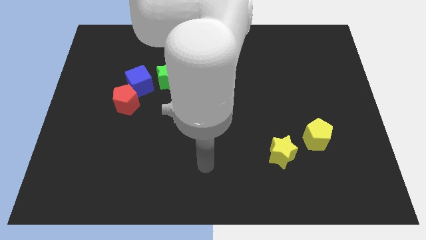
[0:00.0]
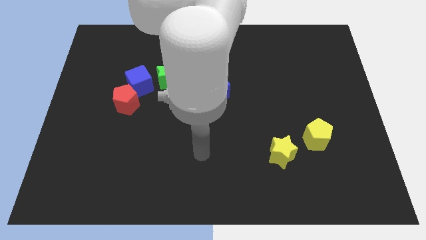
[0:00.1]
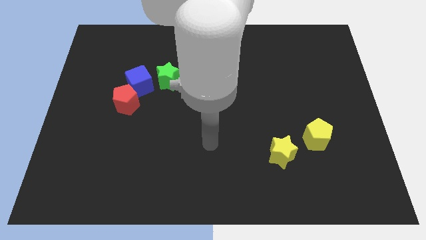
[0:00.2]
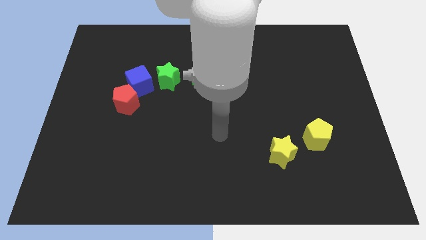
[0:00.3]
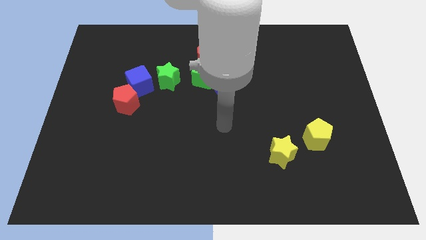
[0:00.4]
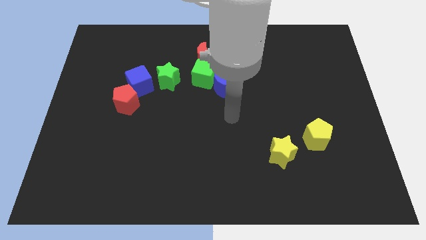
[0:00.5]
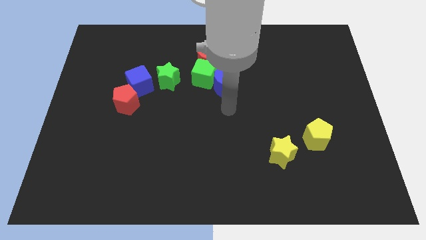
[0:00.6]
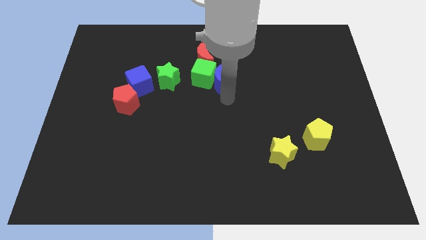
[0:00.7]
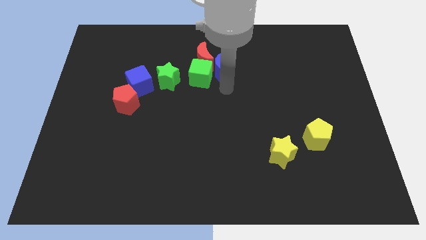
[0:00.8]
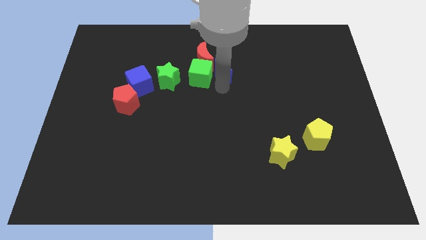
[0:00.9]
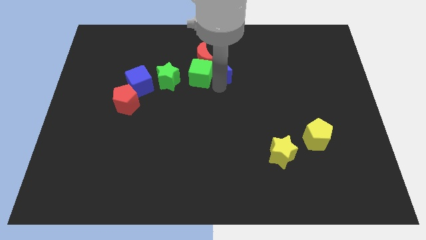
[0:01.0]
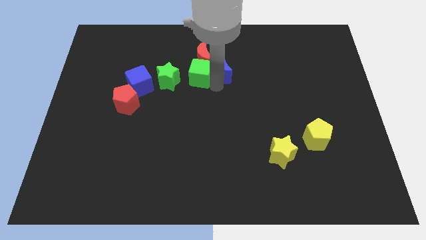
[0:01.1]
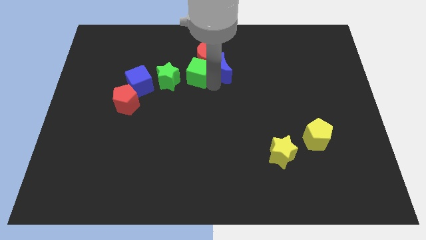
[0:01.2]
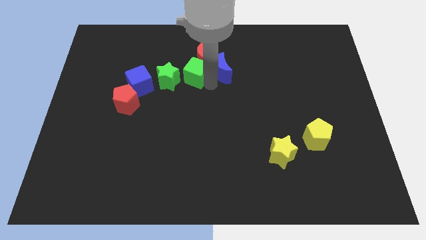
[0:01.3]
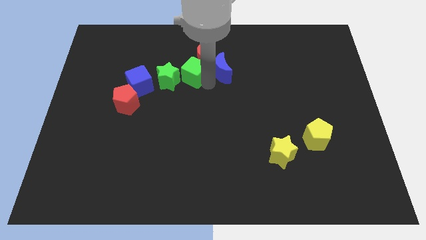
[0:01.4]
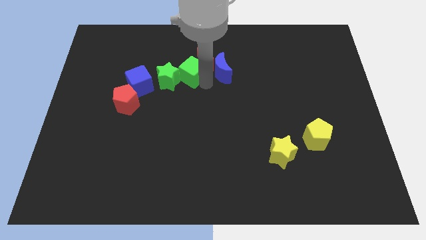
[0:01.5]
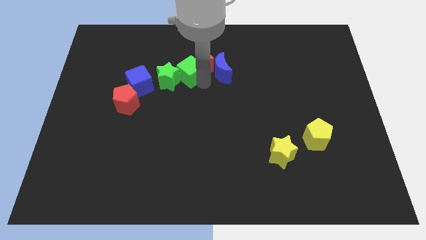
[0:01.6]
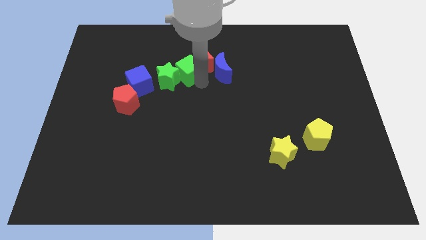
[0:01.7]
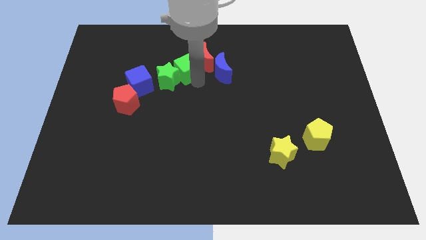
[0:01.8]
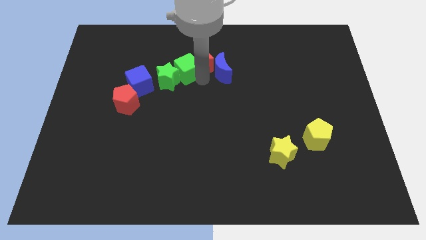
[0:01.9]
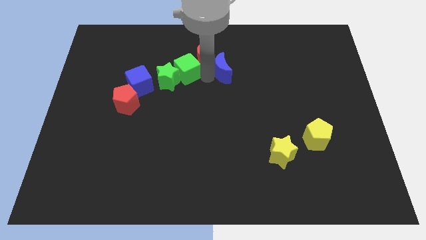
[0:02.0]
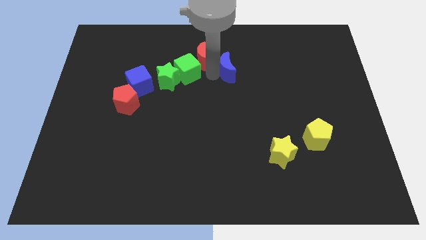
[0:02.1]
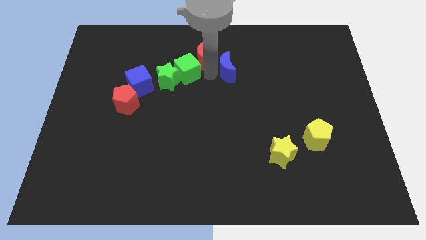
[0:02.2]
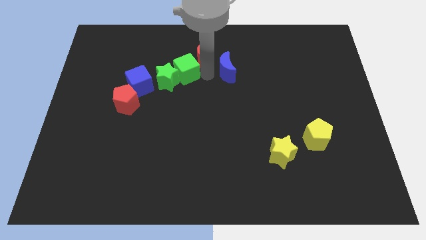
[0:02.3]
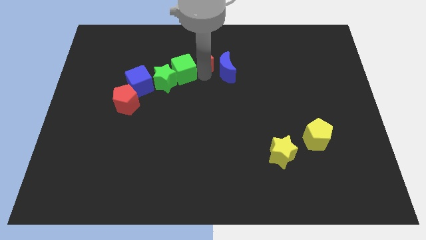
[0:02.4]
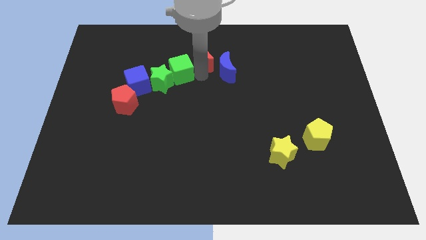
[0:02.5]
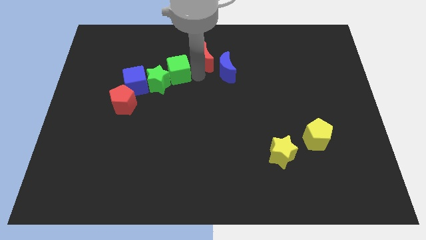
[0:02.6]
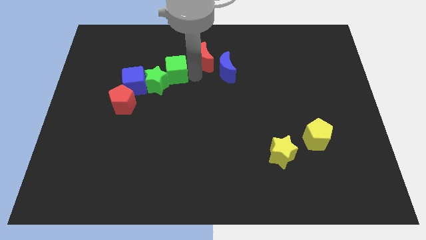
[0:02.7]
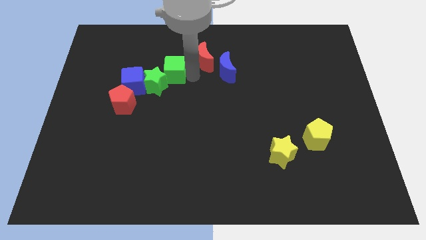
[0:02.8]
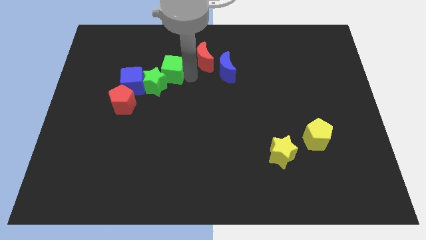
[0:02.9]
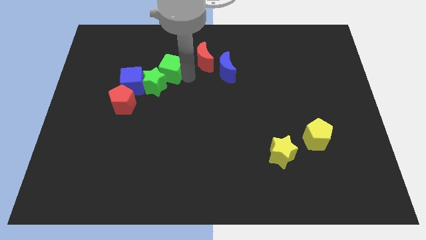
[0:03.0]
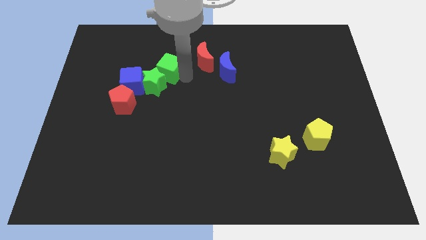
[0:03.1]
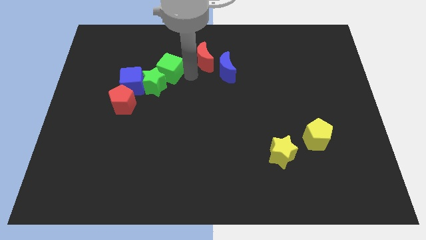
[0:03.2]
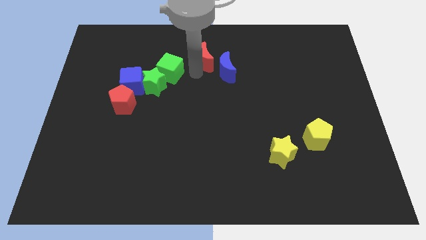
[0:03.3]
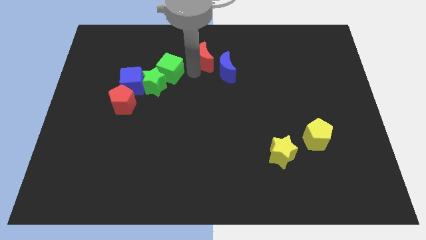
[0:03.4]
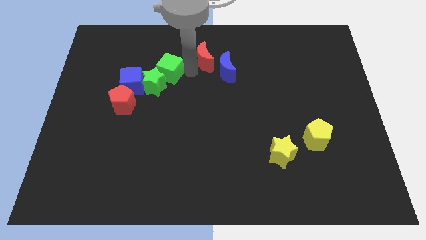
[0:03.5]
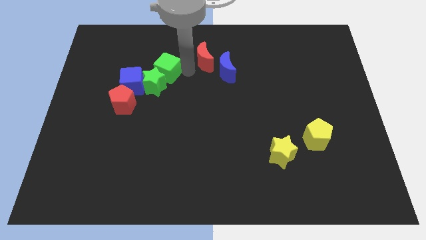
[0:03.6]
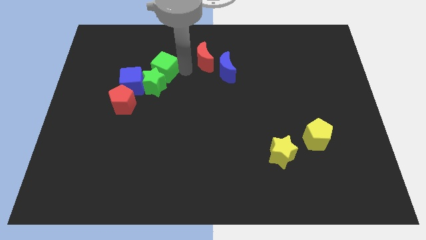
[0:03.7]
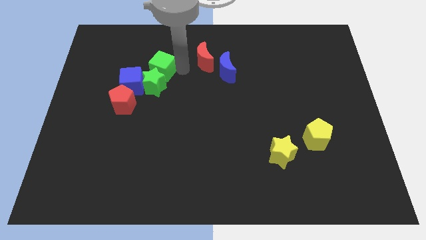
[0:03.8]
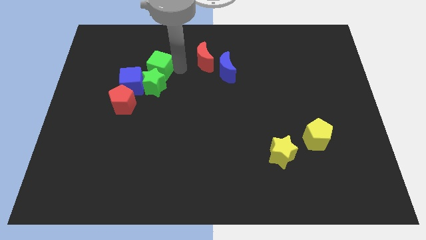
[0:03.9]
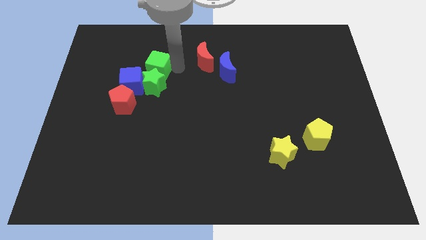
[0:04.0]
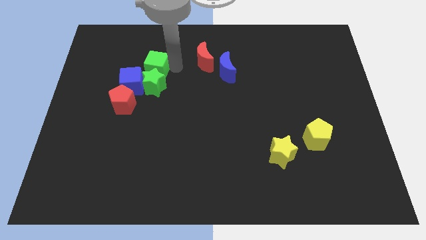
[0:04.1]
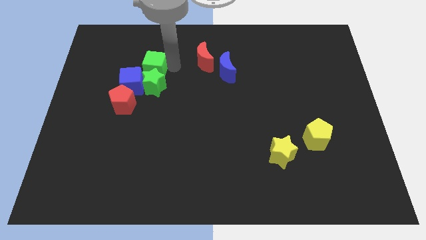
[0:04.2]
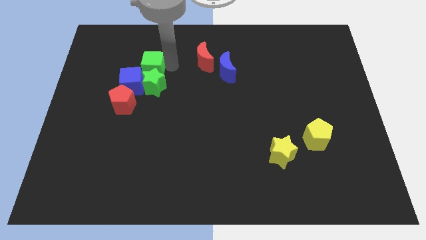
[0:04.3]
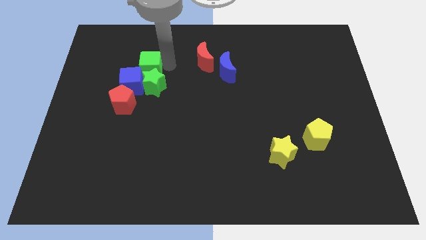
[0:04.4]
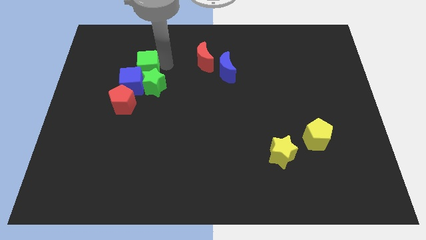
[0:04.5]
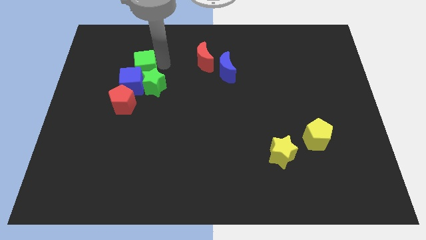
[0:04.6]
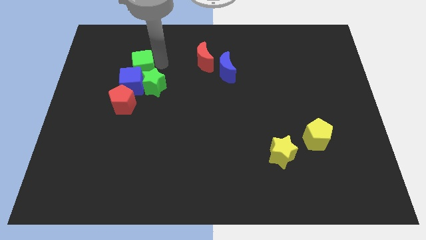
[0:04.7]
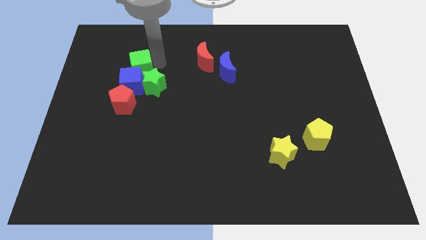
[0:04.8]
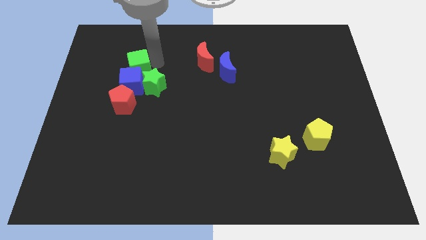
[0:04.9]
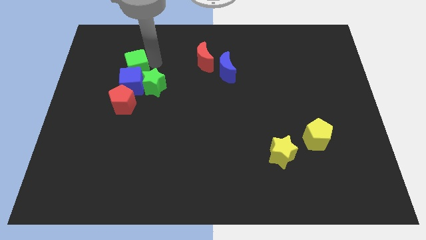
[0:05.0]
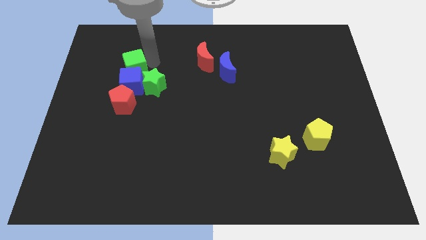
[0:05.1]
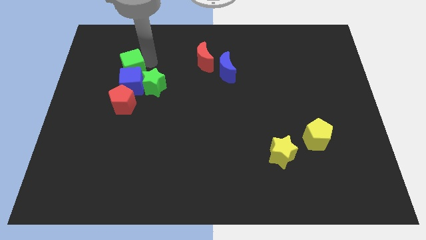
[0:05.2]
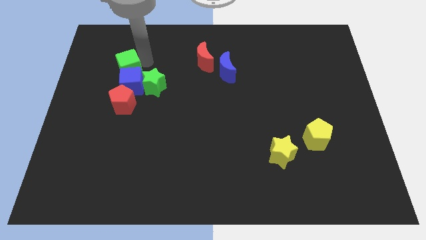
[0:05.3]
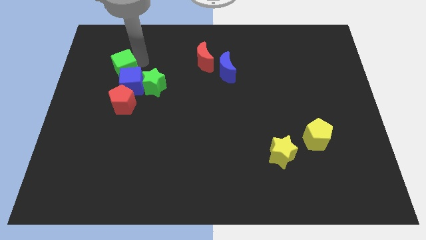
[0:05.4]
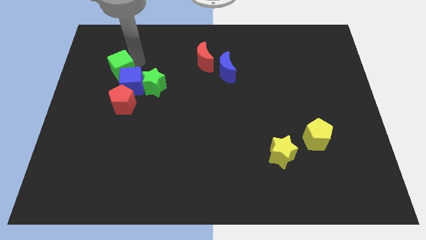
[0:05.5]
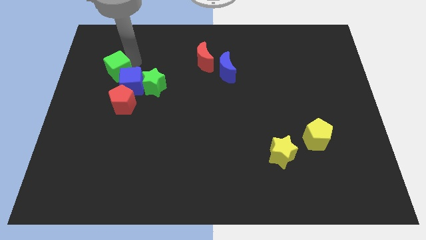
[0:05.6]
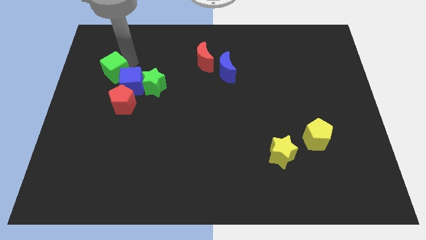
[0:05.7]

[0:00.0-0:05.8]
slide the green cube to the left of the blue cube

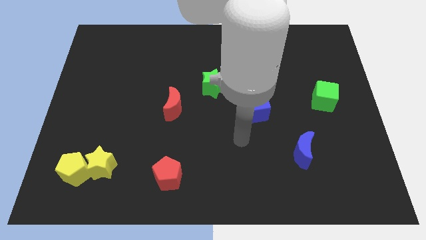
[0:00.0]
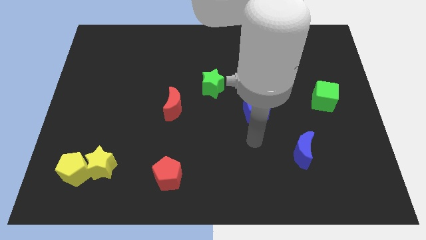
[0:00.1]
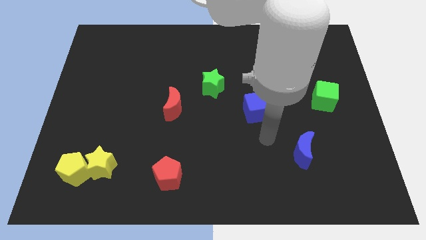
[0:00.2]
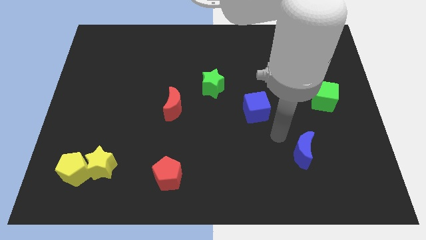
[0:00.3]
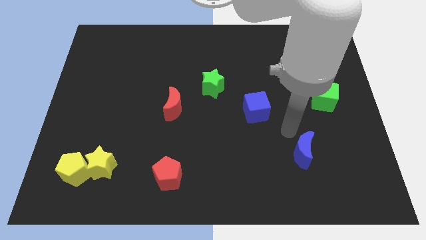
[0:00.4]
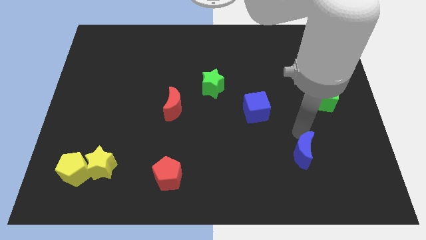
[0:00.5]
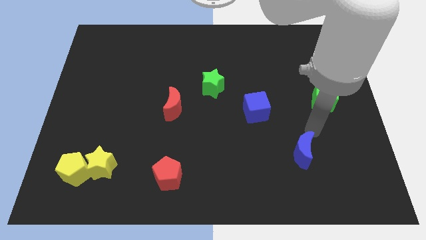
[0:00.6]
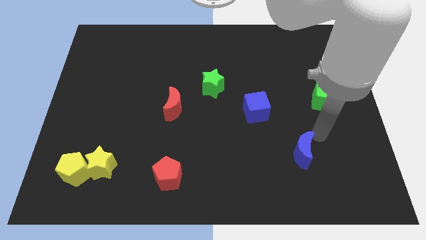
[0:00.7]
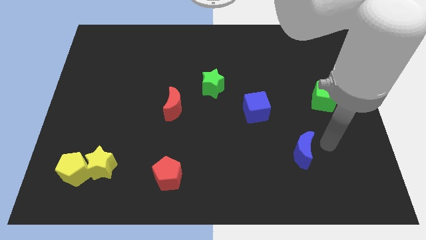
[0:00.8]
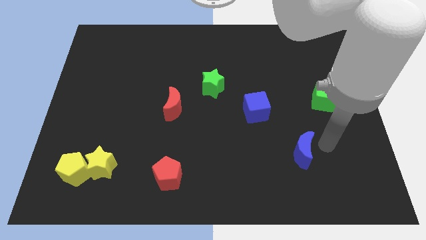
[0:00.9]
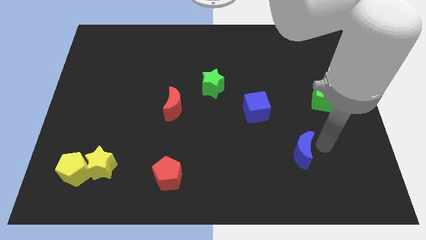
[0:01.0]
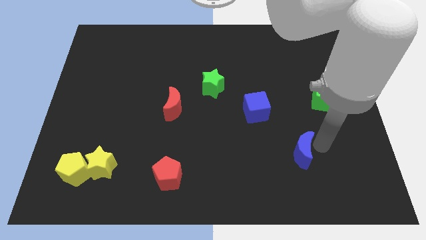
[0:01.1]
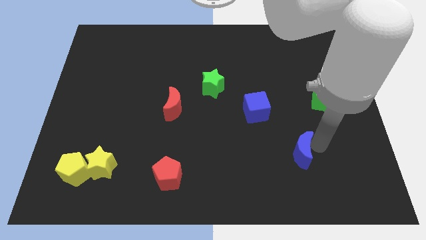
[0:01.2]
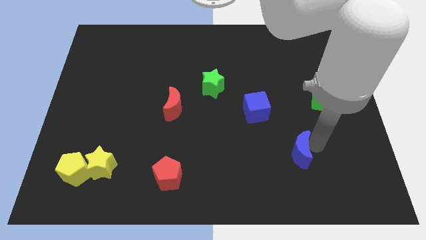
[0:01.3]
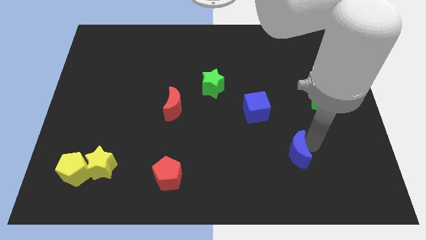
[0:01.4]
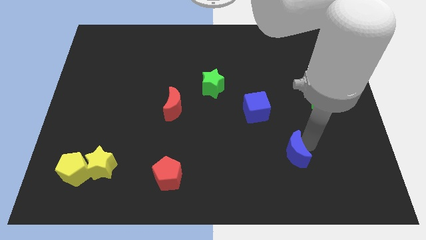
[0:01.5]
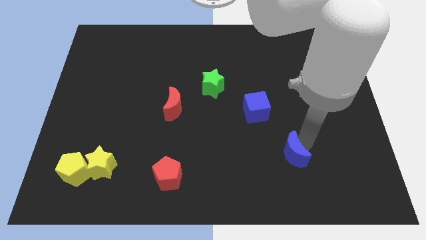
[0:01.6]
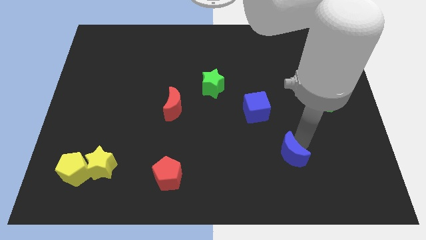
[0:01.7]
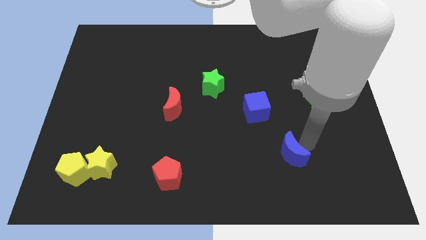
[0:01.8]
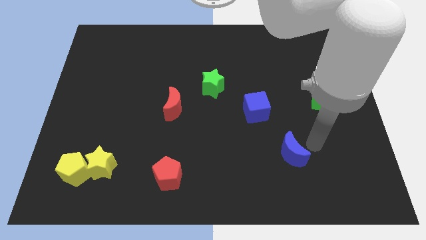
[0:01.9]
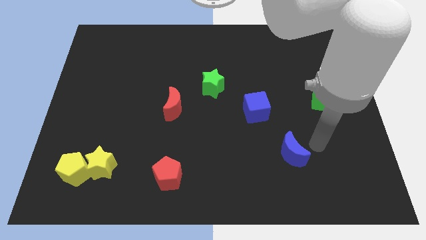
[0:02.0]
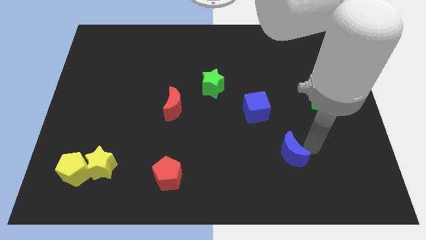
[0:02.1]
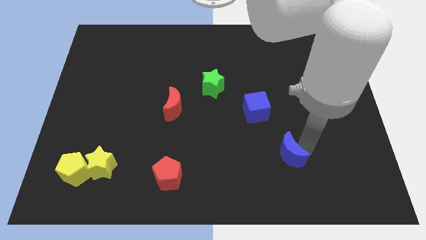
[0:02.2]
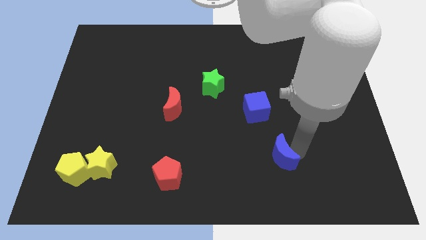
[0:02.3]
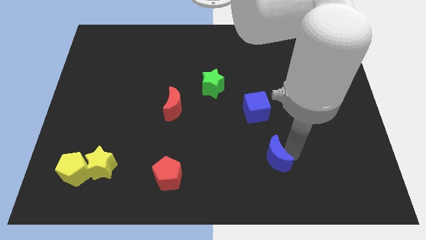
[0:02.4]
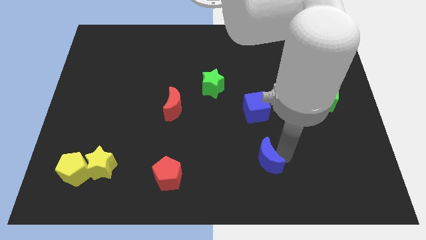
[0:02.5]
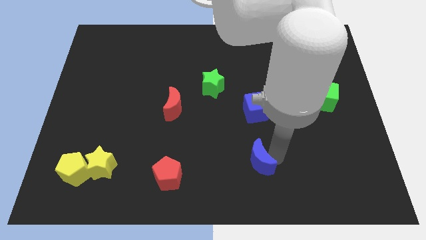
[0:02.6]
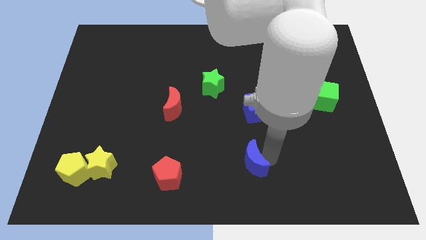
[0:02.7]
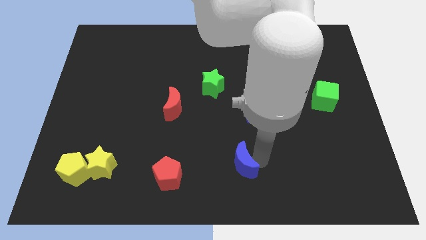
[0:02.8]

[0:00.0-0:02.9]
put the blue moon to the right side of the red pentagon
